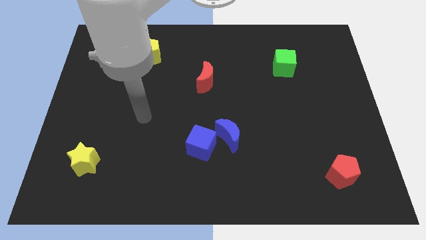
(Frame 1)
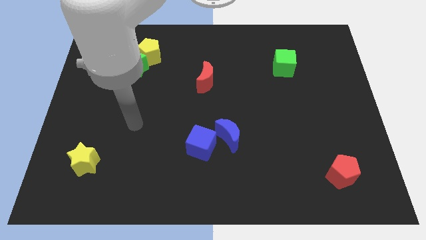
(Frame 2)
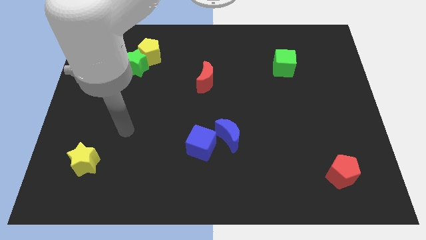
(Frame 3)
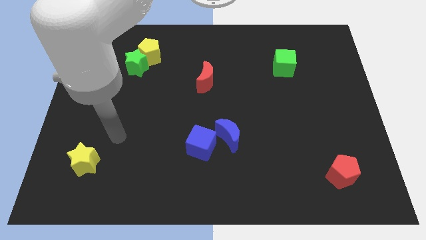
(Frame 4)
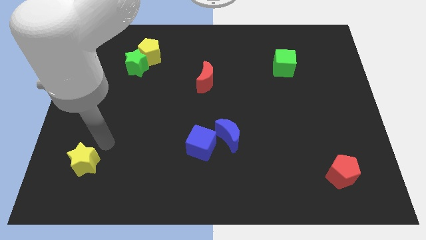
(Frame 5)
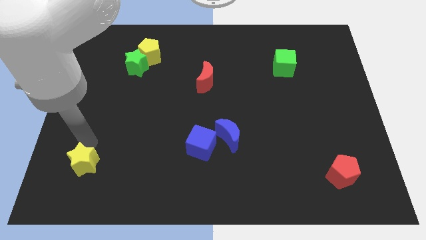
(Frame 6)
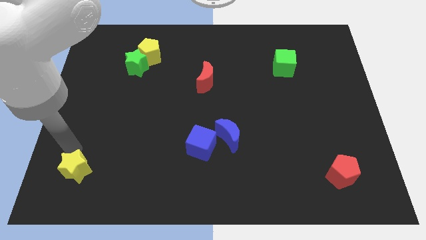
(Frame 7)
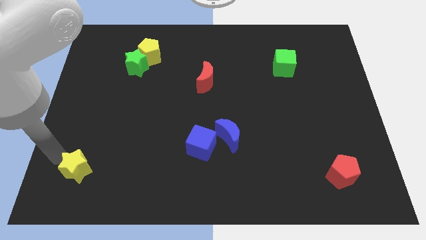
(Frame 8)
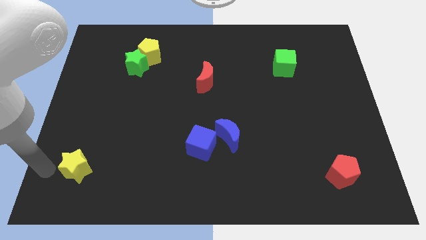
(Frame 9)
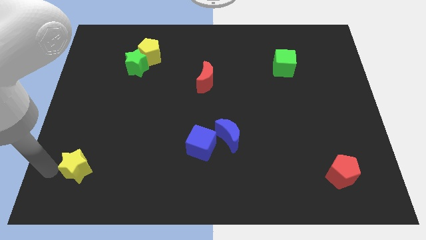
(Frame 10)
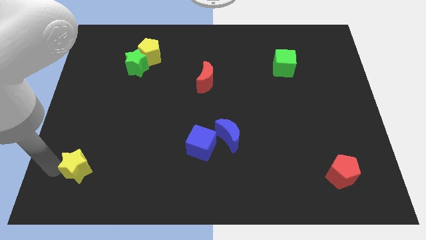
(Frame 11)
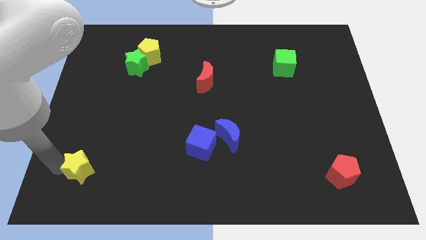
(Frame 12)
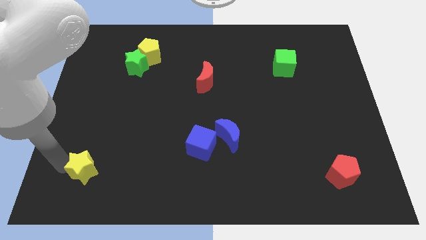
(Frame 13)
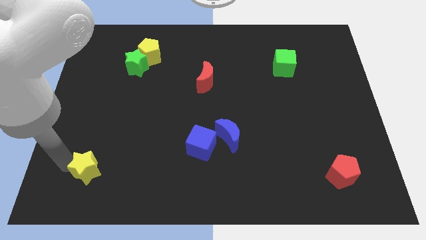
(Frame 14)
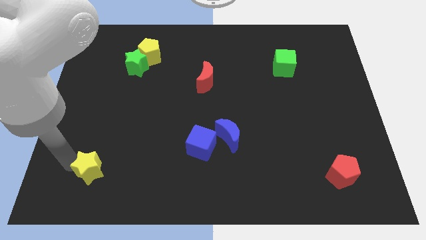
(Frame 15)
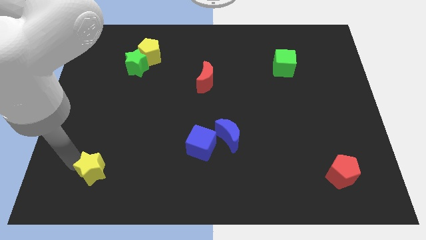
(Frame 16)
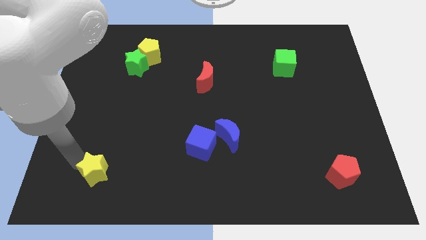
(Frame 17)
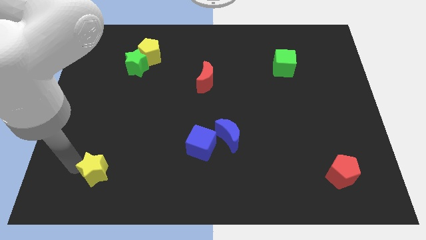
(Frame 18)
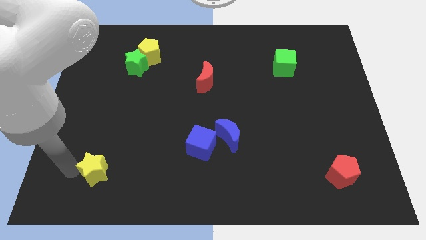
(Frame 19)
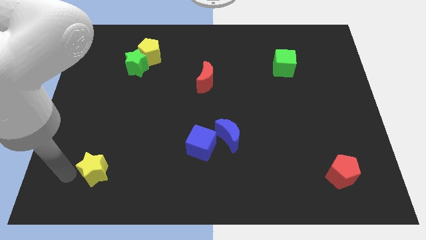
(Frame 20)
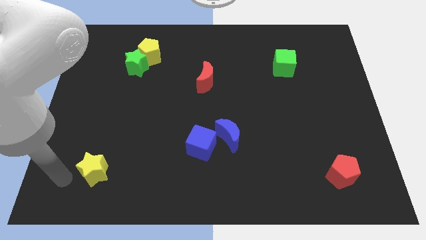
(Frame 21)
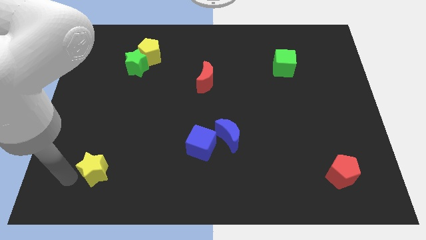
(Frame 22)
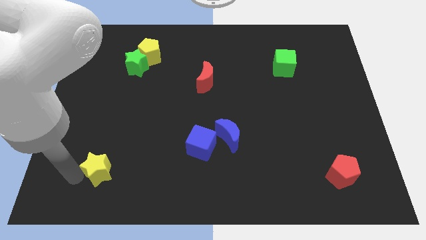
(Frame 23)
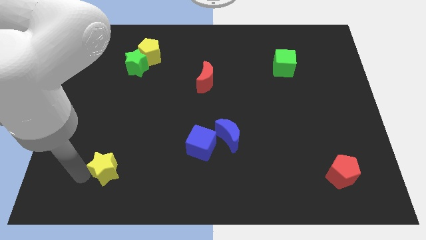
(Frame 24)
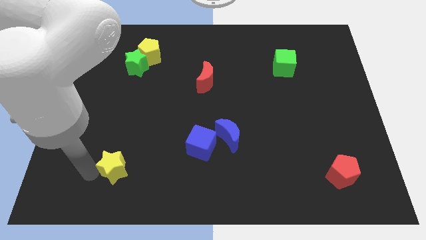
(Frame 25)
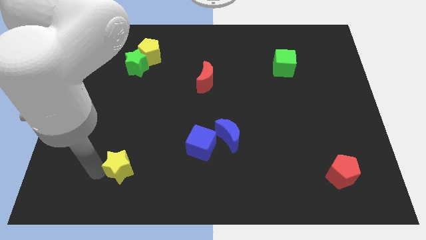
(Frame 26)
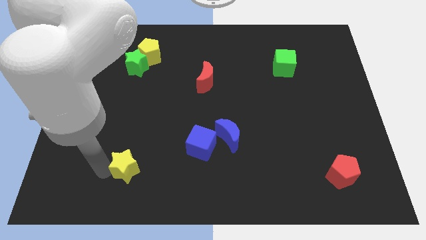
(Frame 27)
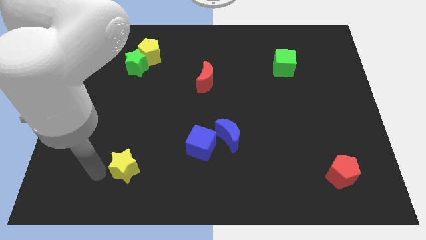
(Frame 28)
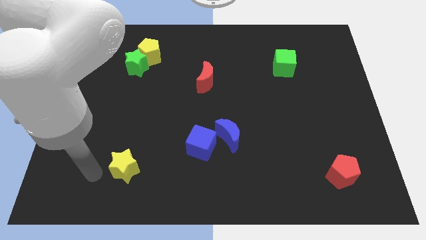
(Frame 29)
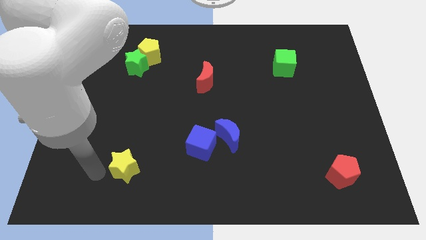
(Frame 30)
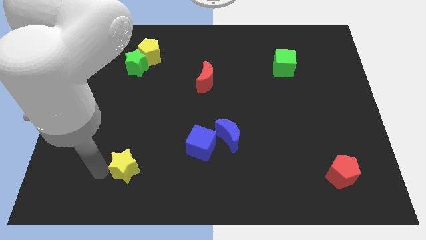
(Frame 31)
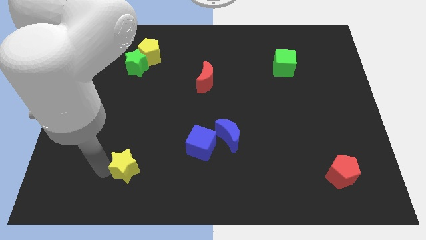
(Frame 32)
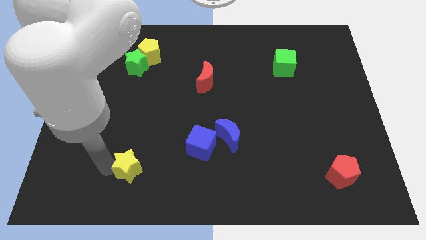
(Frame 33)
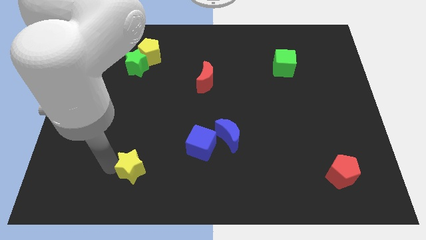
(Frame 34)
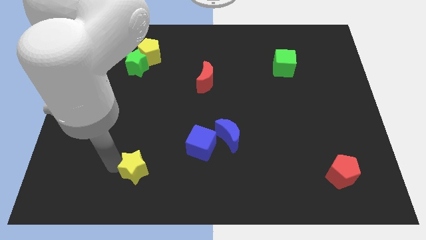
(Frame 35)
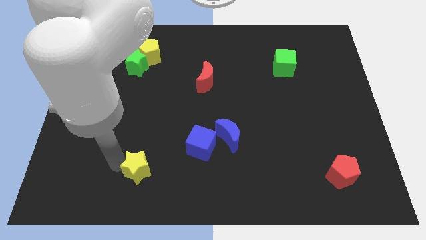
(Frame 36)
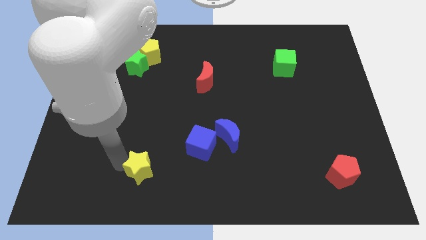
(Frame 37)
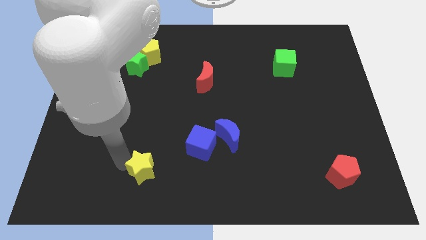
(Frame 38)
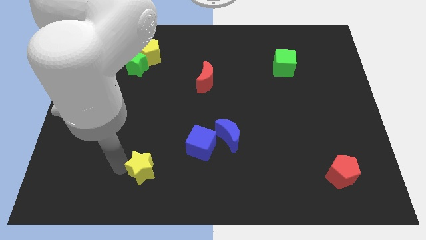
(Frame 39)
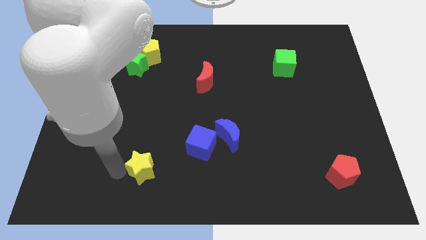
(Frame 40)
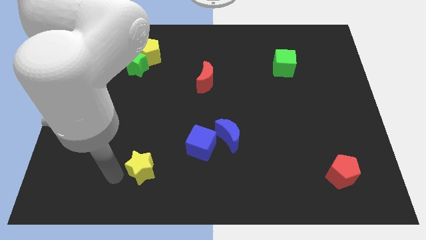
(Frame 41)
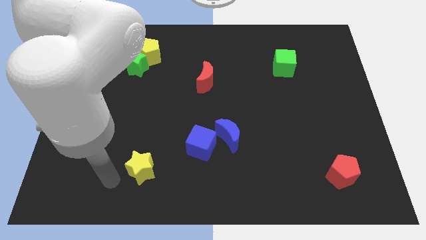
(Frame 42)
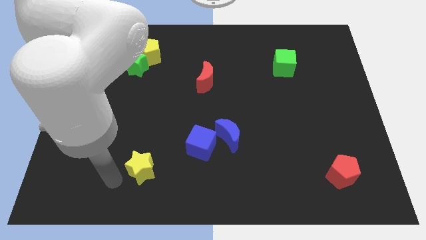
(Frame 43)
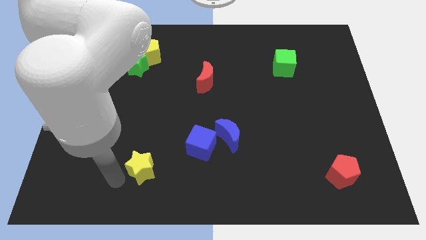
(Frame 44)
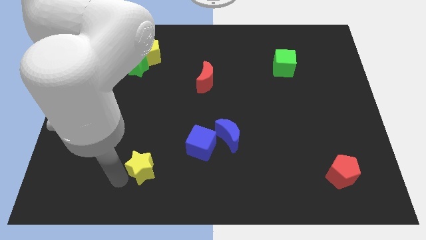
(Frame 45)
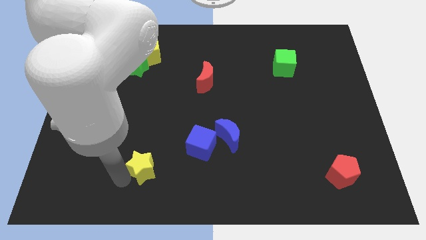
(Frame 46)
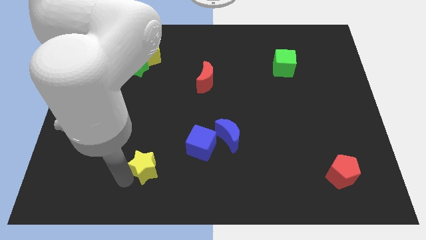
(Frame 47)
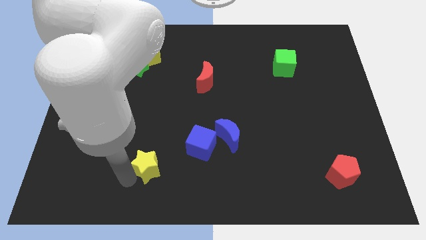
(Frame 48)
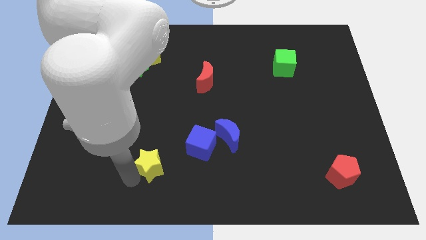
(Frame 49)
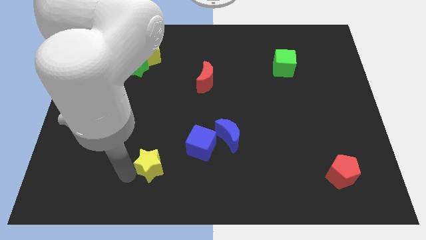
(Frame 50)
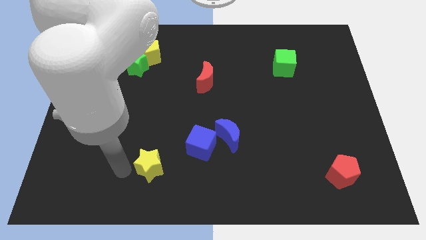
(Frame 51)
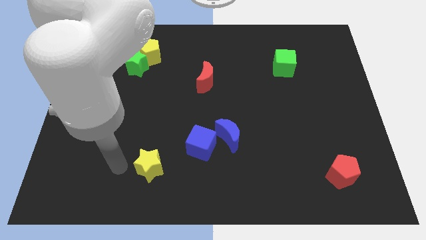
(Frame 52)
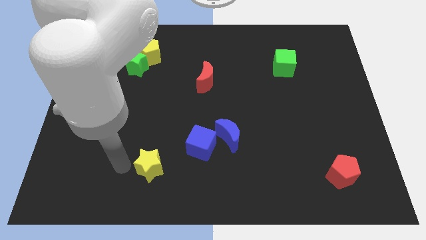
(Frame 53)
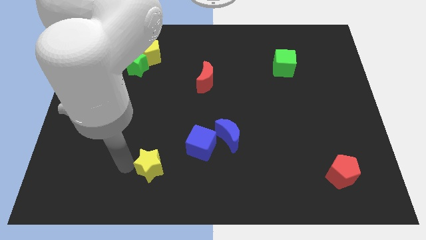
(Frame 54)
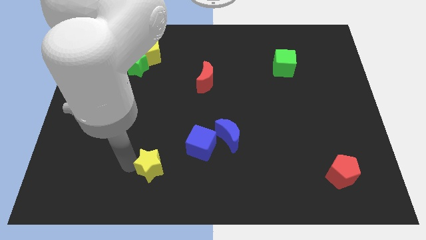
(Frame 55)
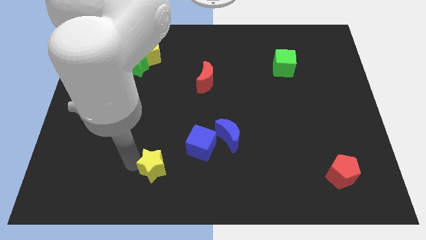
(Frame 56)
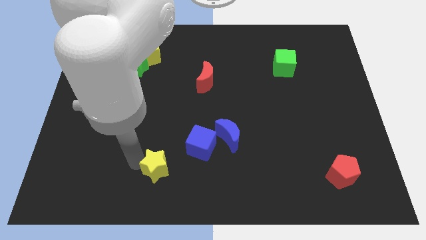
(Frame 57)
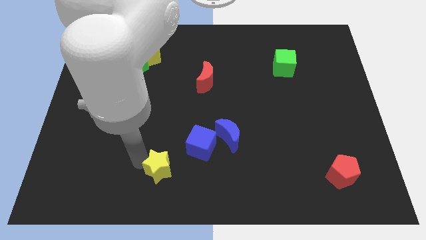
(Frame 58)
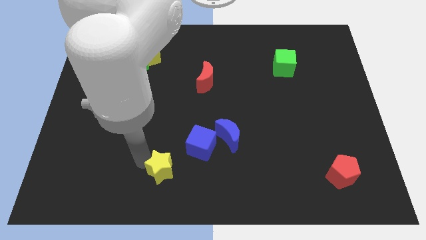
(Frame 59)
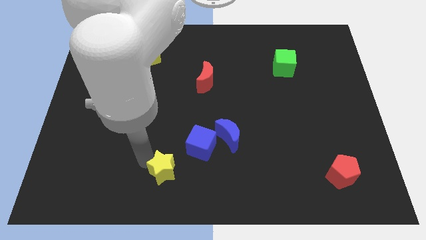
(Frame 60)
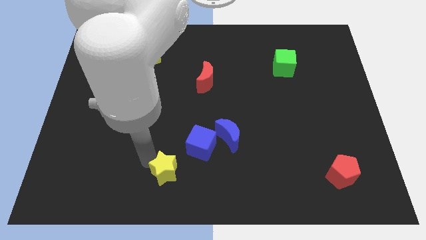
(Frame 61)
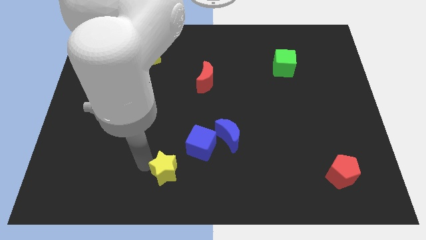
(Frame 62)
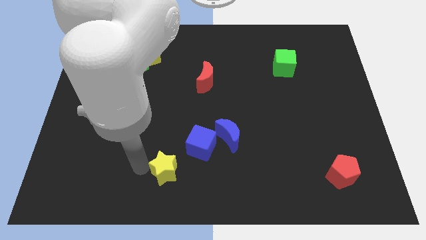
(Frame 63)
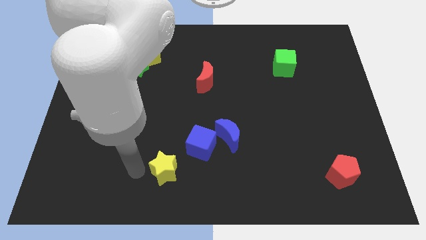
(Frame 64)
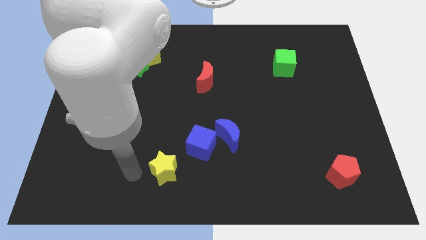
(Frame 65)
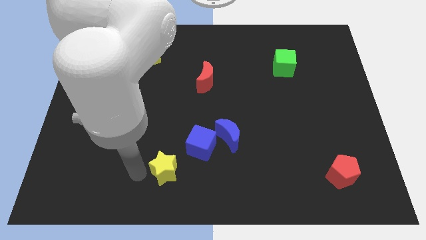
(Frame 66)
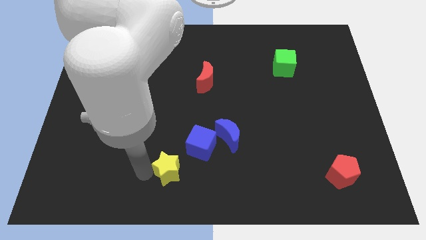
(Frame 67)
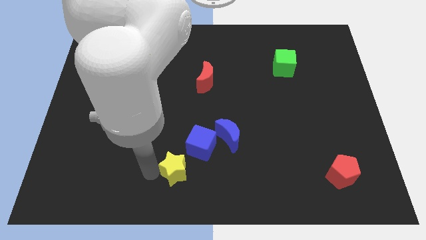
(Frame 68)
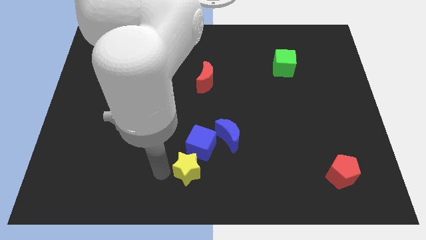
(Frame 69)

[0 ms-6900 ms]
push the yellow star to the right

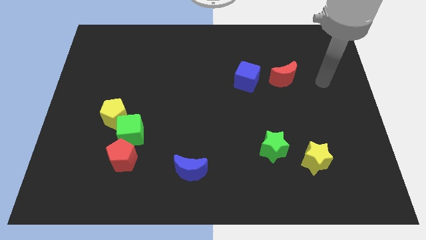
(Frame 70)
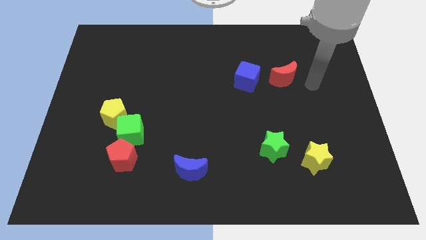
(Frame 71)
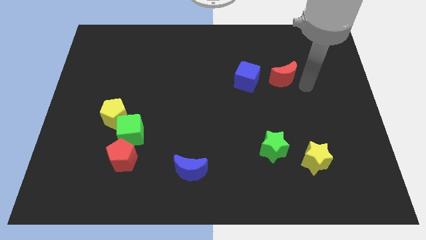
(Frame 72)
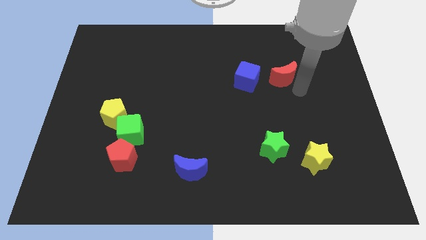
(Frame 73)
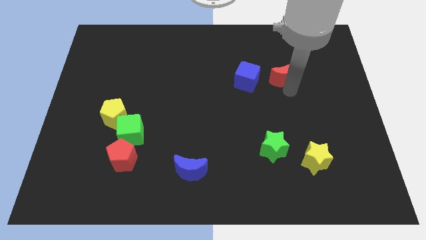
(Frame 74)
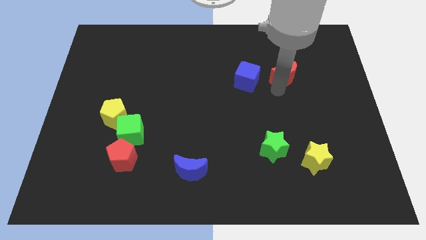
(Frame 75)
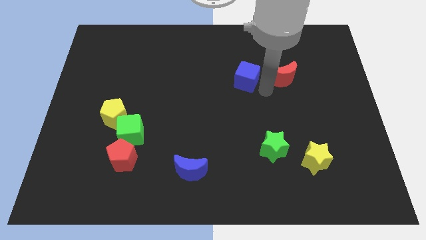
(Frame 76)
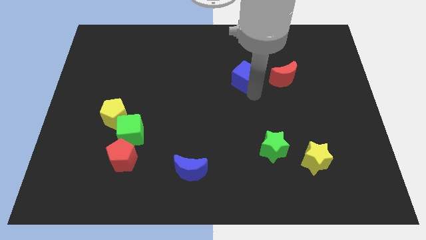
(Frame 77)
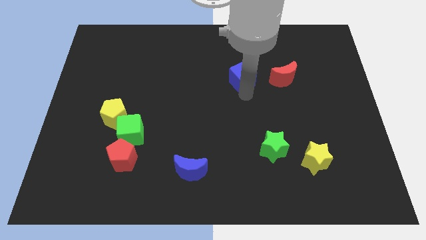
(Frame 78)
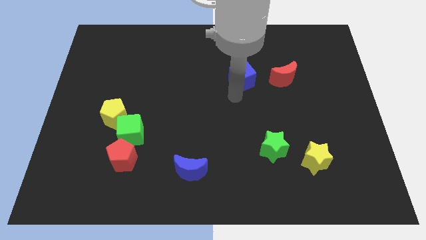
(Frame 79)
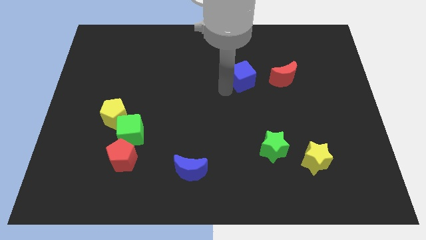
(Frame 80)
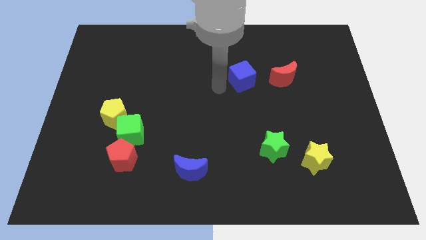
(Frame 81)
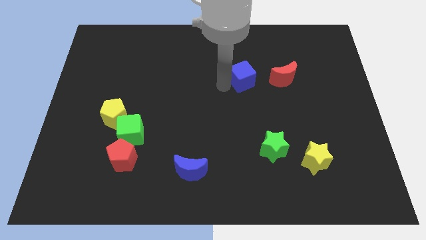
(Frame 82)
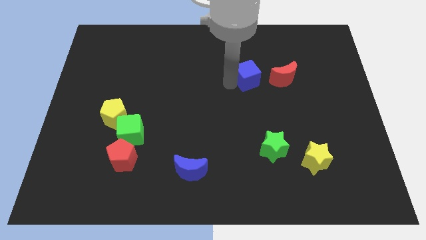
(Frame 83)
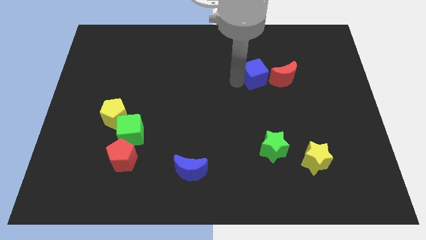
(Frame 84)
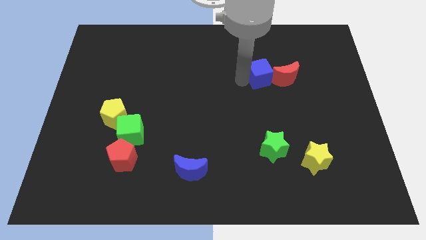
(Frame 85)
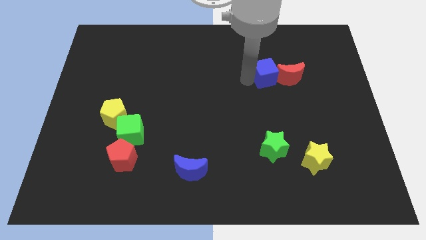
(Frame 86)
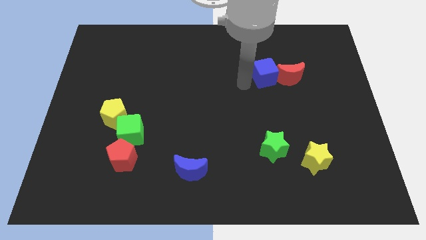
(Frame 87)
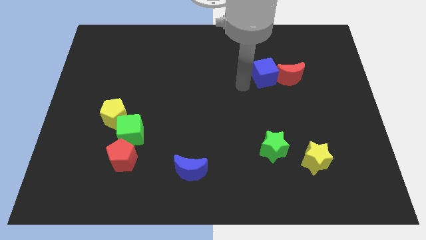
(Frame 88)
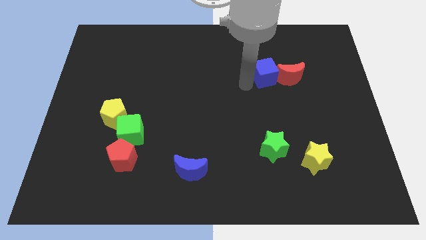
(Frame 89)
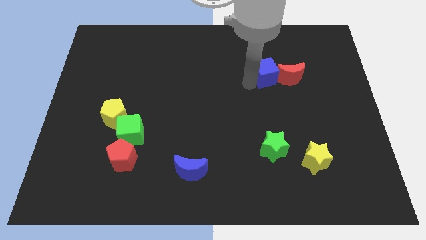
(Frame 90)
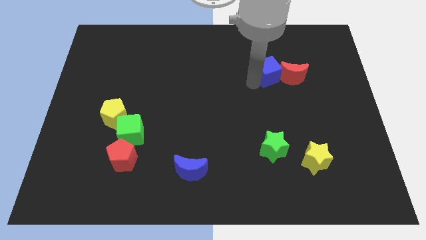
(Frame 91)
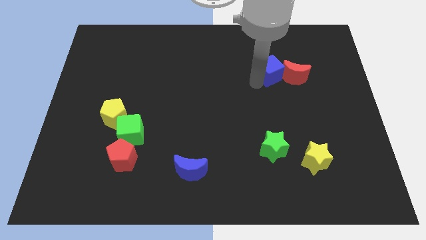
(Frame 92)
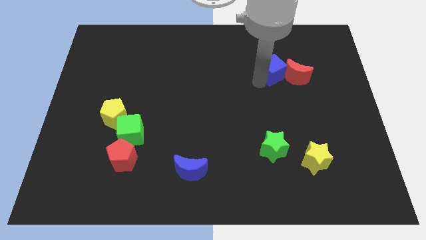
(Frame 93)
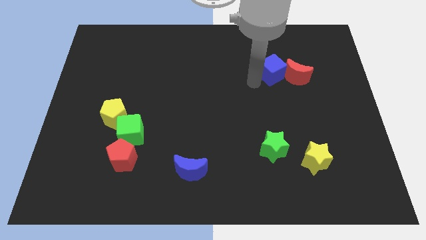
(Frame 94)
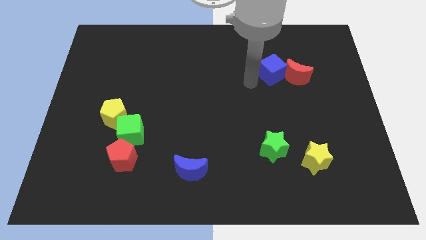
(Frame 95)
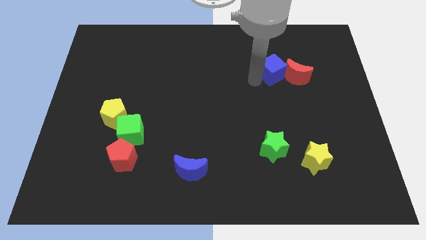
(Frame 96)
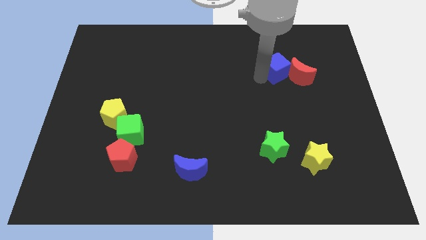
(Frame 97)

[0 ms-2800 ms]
slide the blue cube to the right a little
